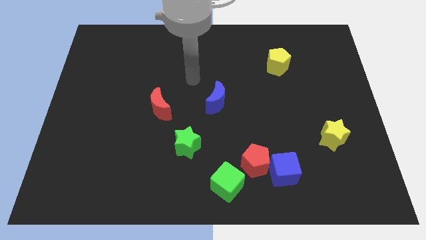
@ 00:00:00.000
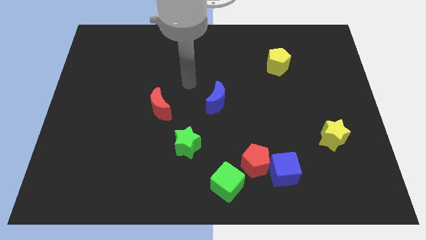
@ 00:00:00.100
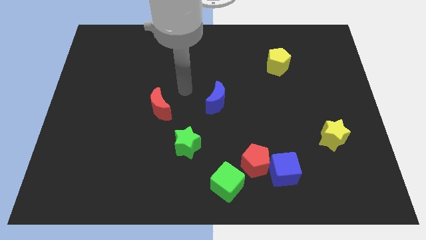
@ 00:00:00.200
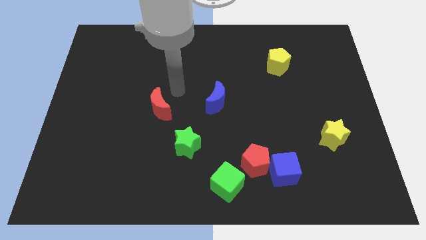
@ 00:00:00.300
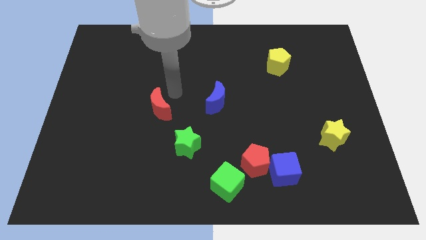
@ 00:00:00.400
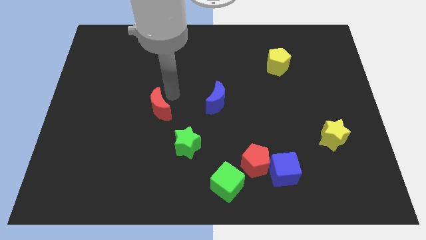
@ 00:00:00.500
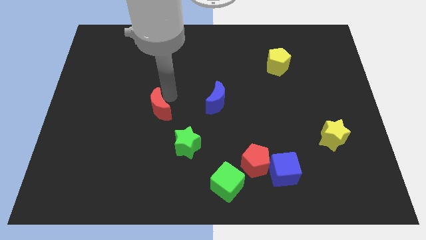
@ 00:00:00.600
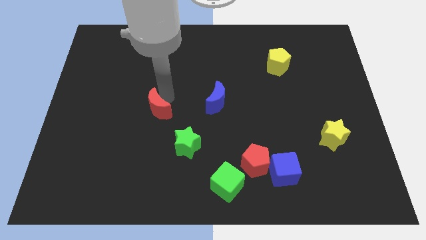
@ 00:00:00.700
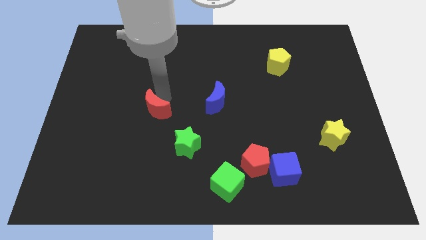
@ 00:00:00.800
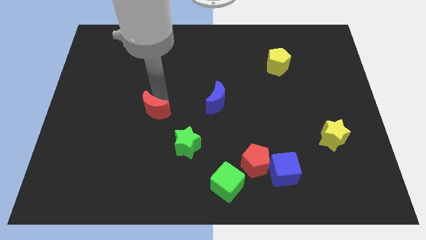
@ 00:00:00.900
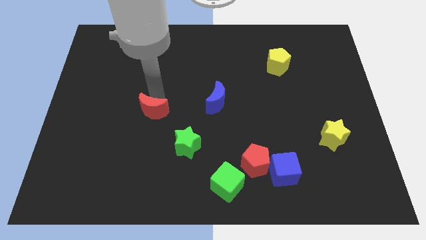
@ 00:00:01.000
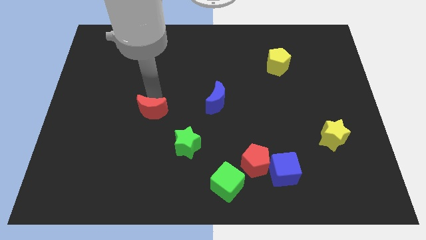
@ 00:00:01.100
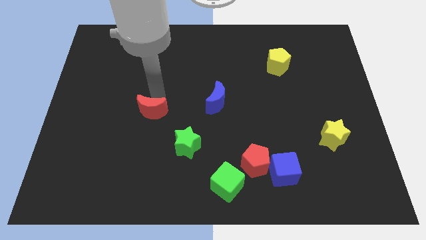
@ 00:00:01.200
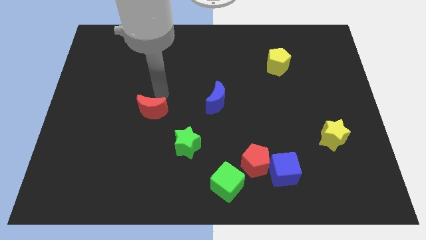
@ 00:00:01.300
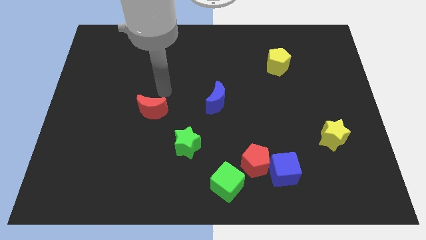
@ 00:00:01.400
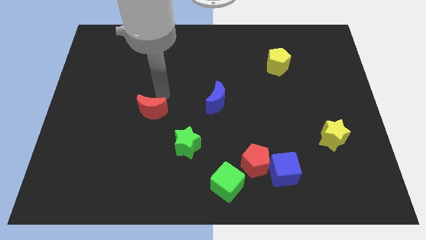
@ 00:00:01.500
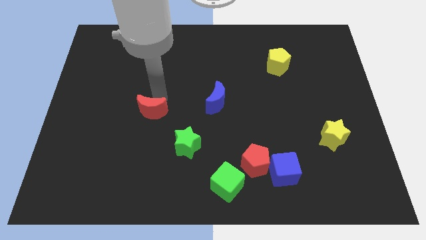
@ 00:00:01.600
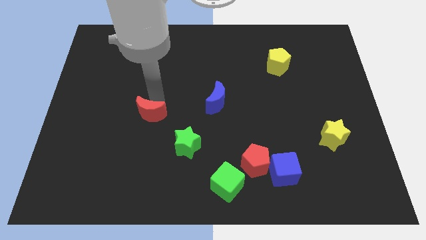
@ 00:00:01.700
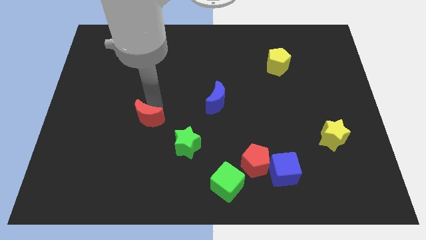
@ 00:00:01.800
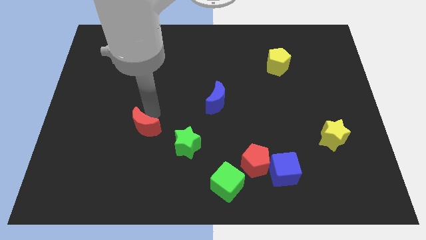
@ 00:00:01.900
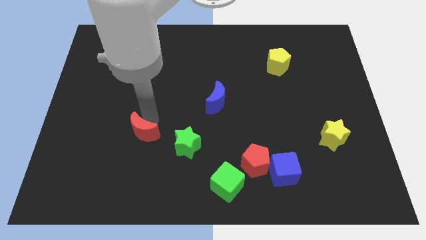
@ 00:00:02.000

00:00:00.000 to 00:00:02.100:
slide the red moon downwards and then left somewhat

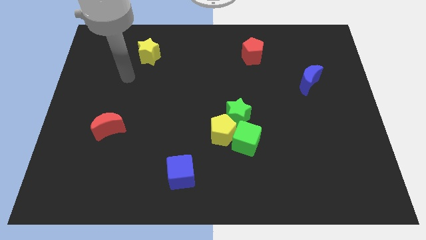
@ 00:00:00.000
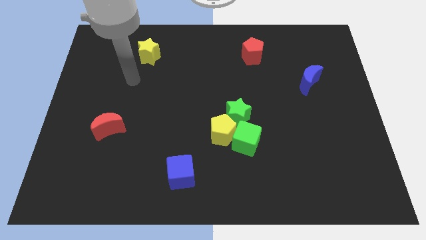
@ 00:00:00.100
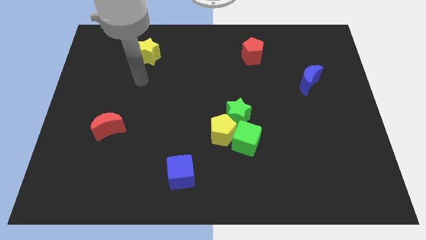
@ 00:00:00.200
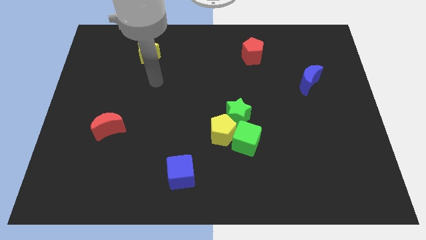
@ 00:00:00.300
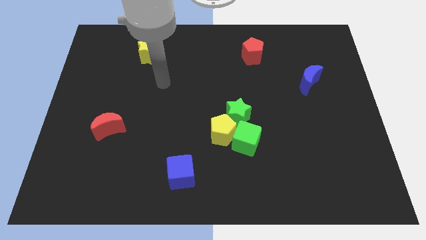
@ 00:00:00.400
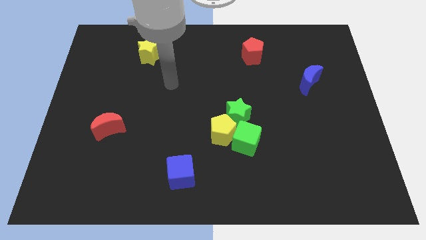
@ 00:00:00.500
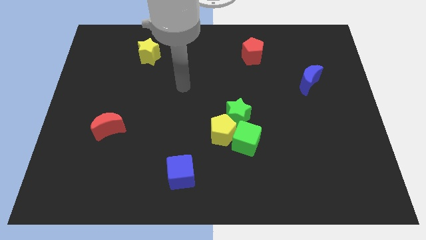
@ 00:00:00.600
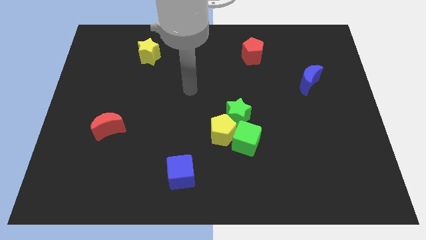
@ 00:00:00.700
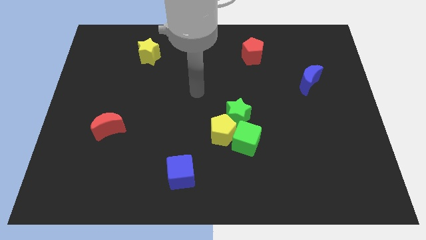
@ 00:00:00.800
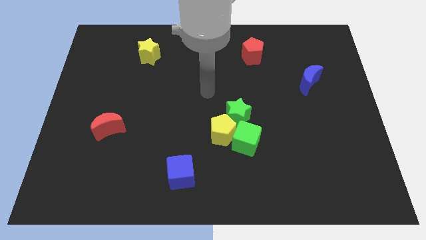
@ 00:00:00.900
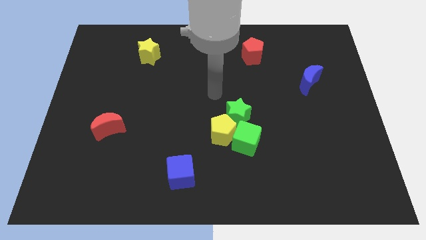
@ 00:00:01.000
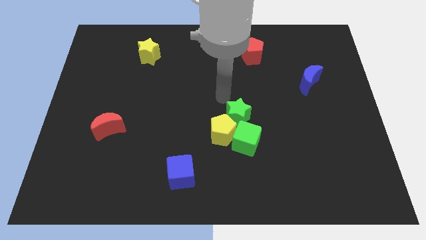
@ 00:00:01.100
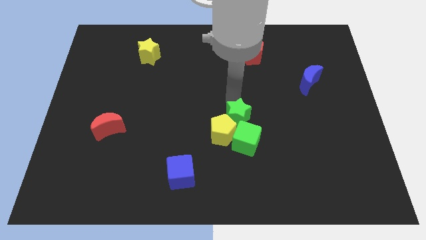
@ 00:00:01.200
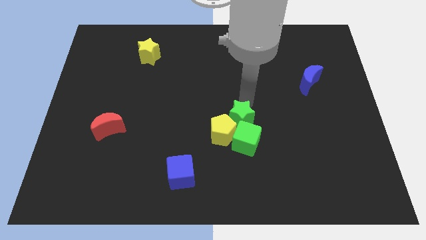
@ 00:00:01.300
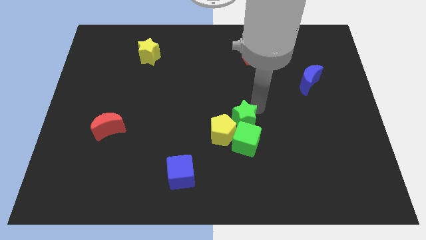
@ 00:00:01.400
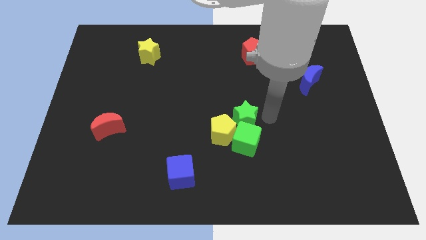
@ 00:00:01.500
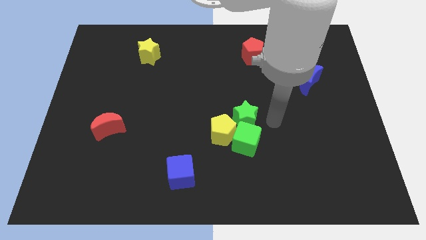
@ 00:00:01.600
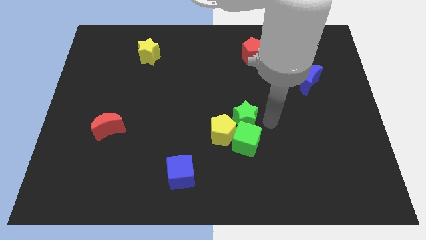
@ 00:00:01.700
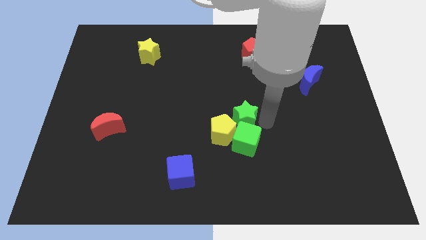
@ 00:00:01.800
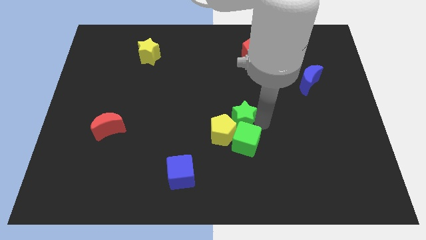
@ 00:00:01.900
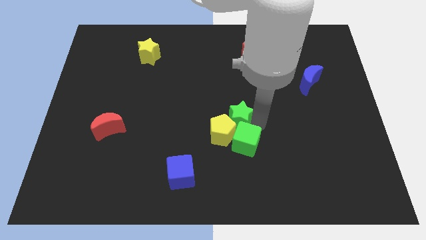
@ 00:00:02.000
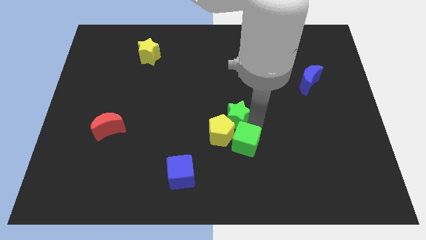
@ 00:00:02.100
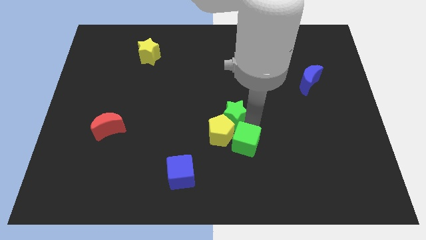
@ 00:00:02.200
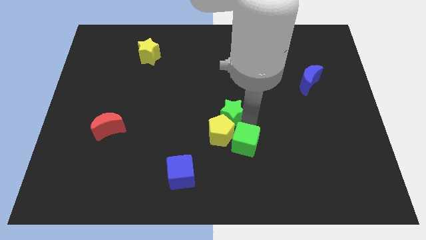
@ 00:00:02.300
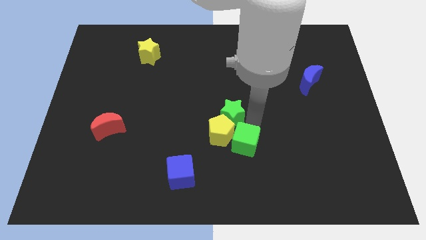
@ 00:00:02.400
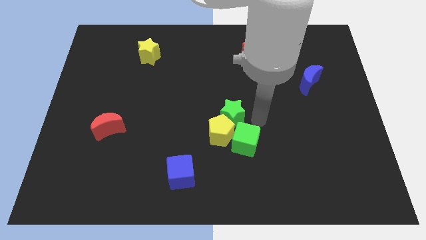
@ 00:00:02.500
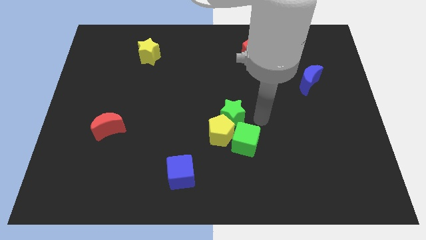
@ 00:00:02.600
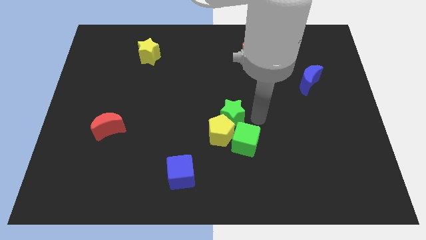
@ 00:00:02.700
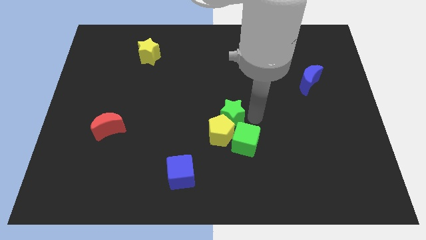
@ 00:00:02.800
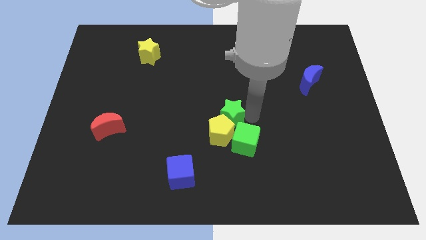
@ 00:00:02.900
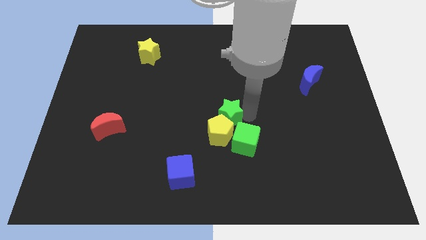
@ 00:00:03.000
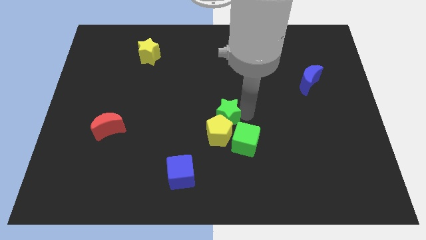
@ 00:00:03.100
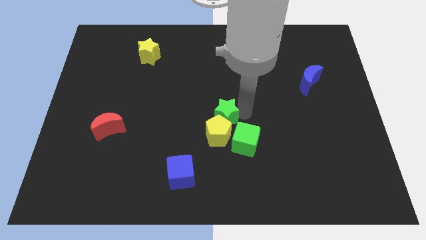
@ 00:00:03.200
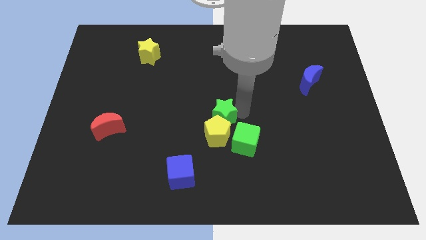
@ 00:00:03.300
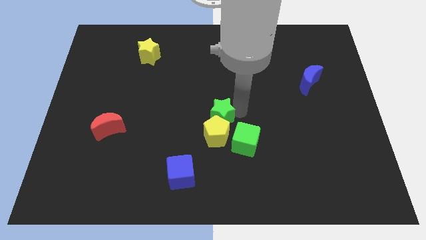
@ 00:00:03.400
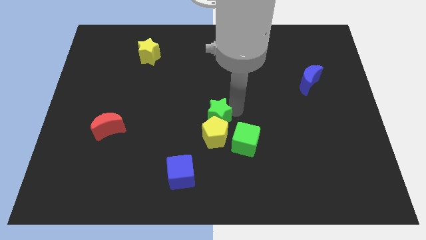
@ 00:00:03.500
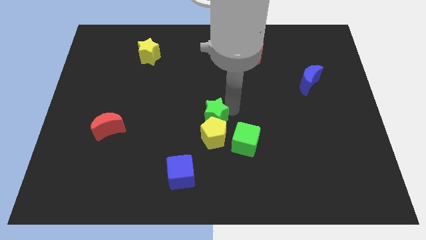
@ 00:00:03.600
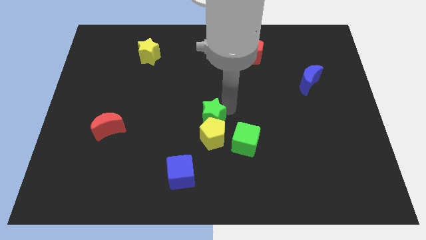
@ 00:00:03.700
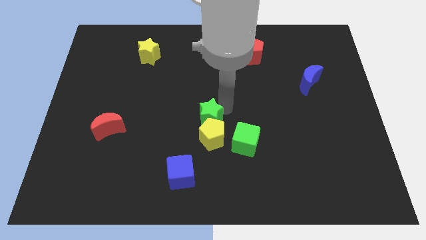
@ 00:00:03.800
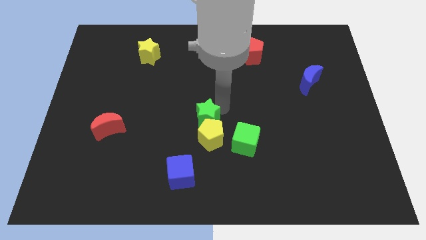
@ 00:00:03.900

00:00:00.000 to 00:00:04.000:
slightly push the green star left

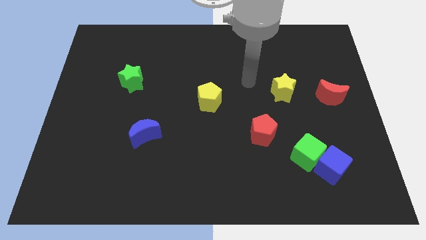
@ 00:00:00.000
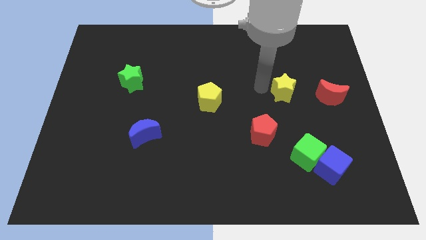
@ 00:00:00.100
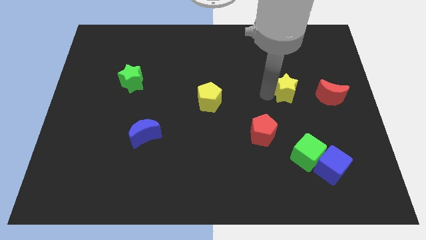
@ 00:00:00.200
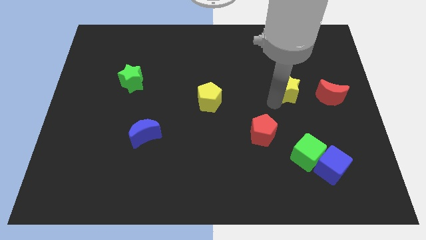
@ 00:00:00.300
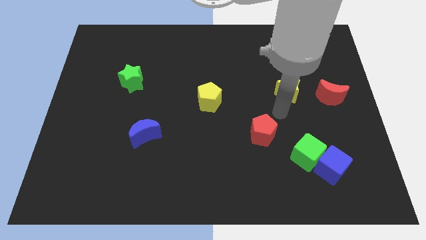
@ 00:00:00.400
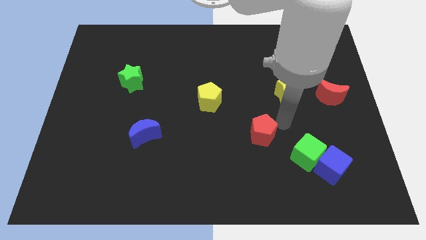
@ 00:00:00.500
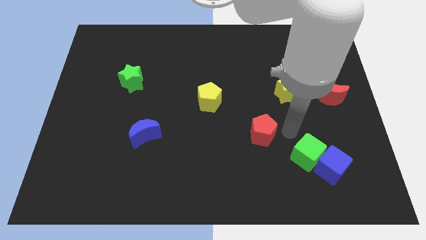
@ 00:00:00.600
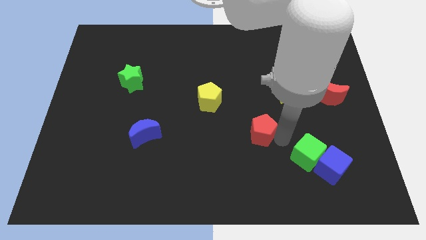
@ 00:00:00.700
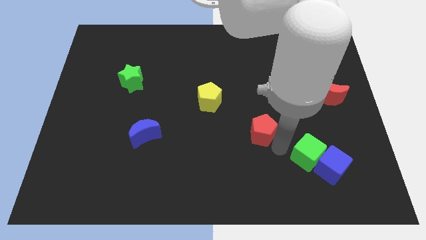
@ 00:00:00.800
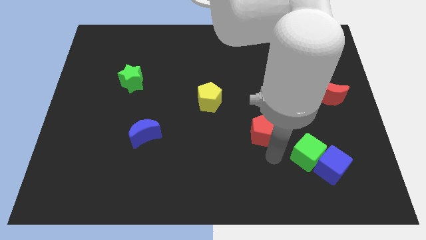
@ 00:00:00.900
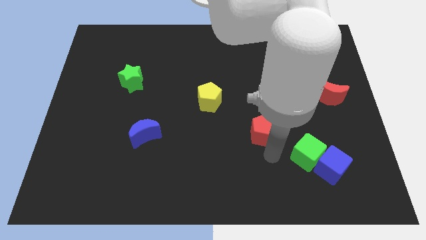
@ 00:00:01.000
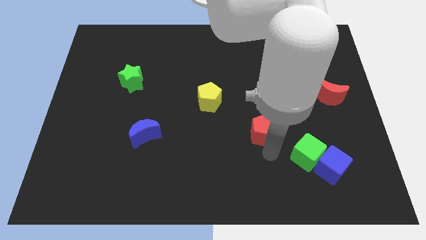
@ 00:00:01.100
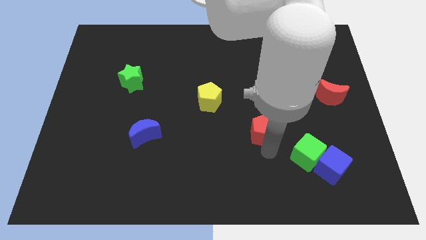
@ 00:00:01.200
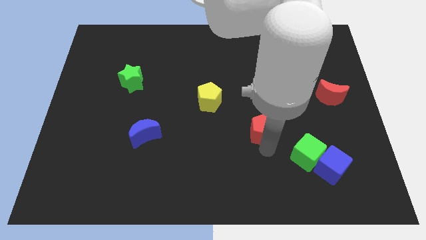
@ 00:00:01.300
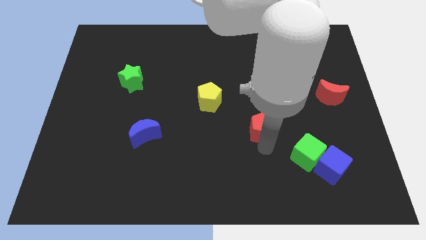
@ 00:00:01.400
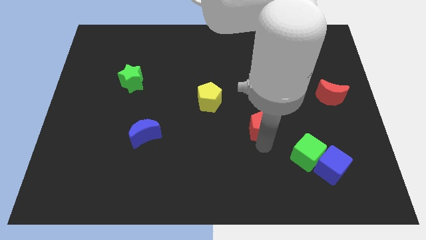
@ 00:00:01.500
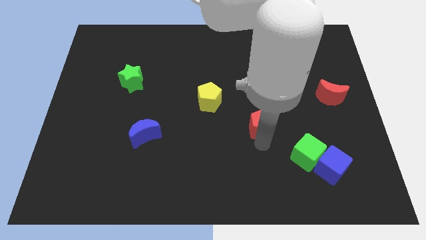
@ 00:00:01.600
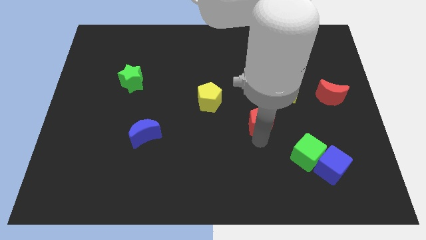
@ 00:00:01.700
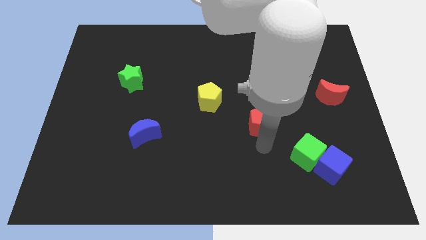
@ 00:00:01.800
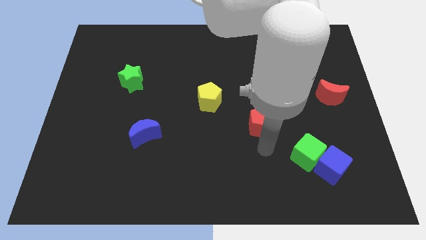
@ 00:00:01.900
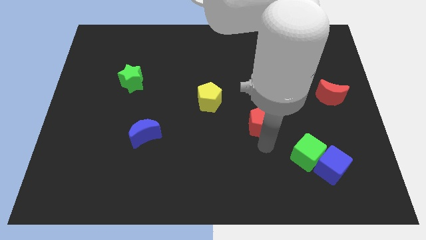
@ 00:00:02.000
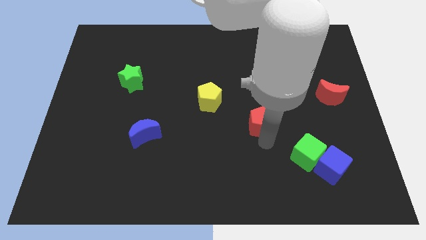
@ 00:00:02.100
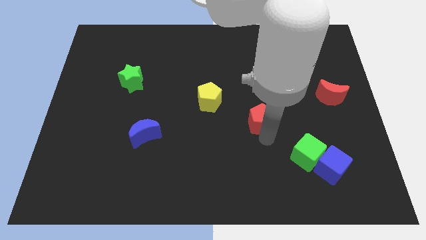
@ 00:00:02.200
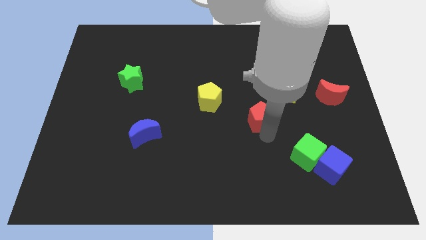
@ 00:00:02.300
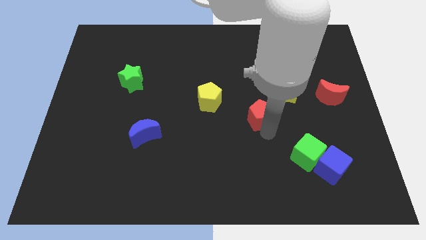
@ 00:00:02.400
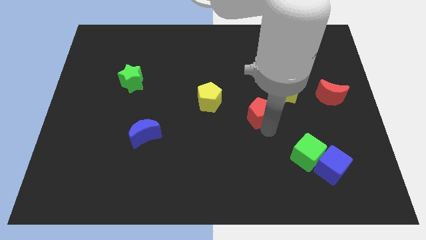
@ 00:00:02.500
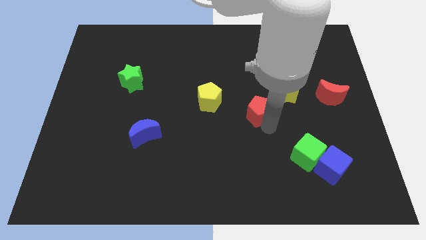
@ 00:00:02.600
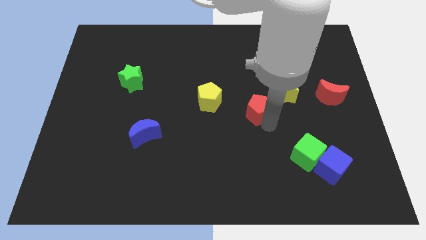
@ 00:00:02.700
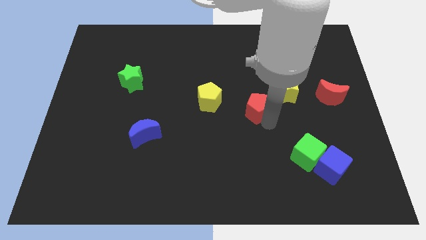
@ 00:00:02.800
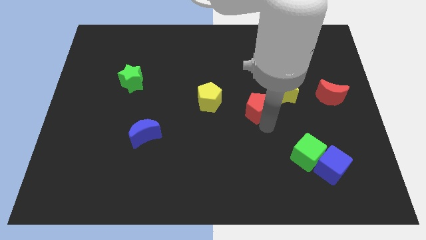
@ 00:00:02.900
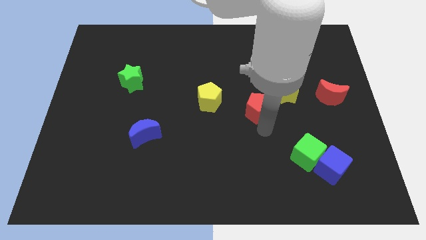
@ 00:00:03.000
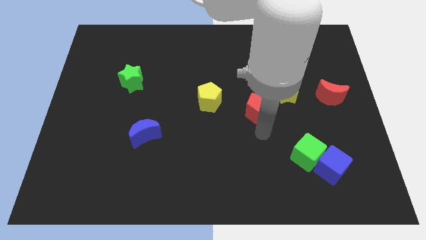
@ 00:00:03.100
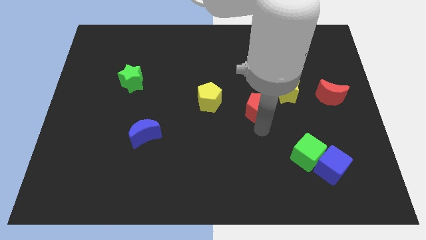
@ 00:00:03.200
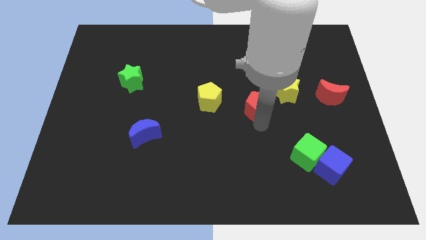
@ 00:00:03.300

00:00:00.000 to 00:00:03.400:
push the red pentagon a bit upwards
